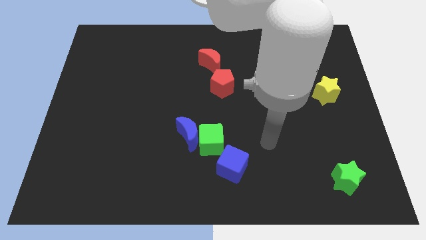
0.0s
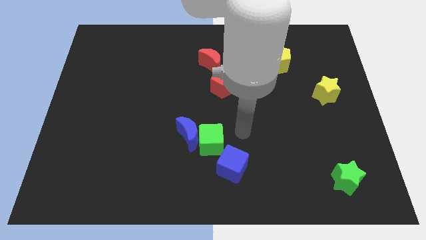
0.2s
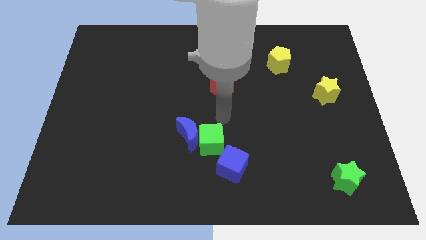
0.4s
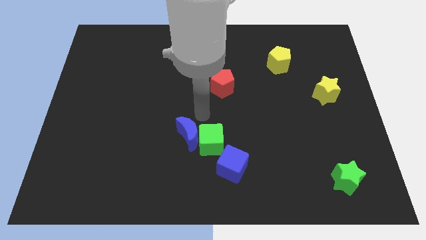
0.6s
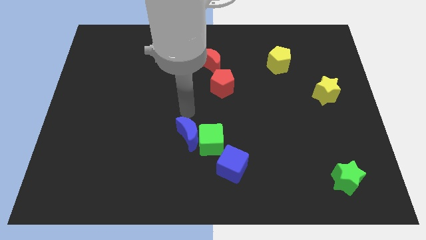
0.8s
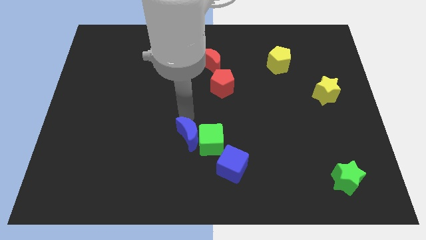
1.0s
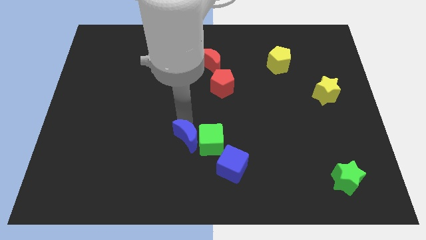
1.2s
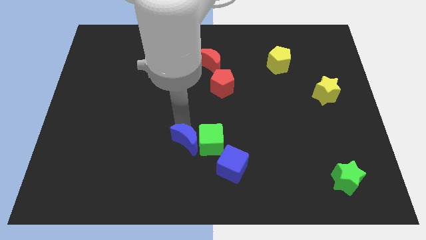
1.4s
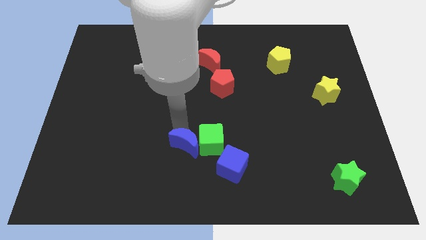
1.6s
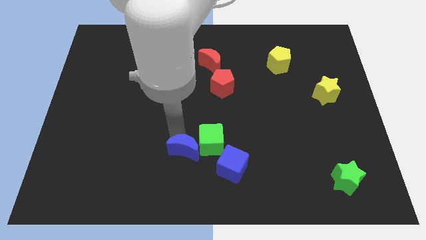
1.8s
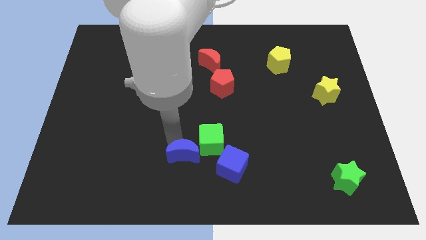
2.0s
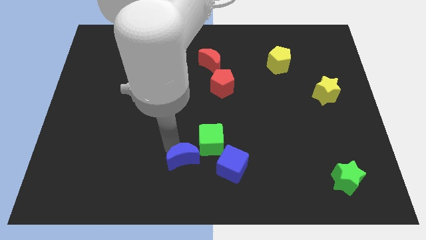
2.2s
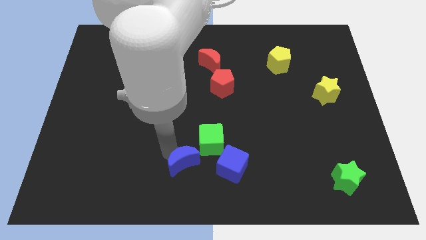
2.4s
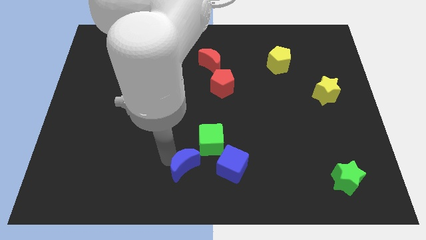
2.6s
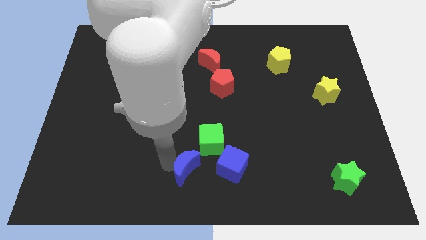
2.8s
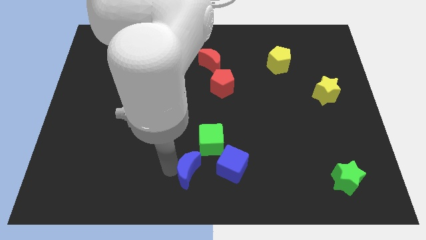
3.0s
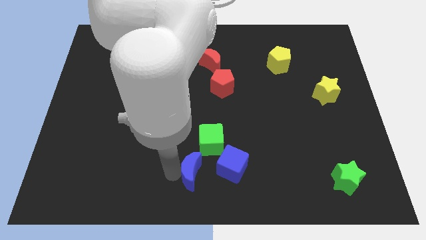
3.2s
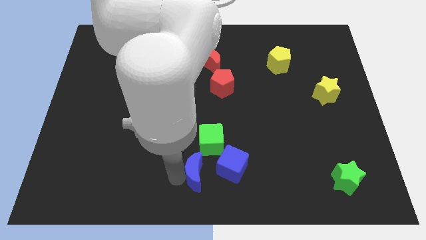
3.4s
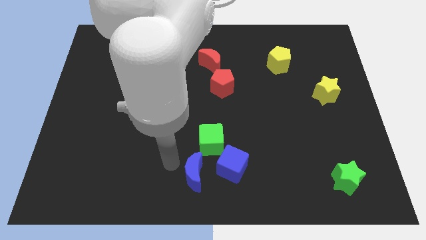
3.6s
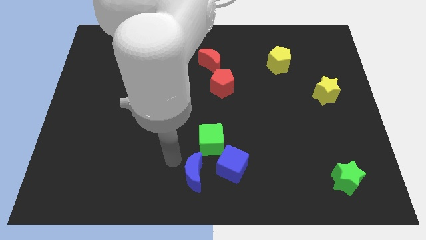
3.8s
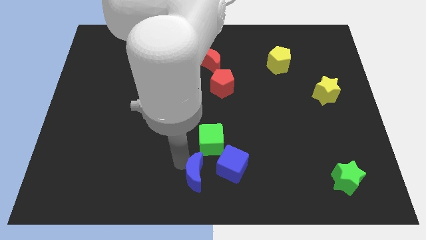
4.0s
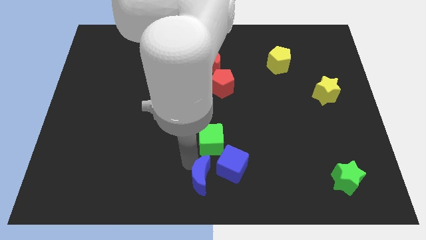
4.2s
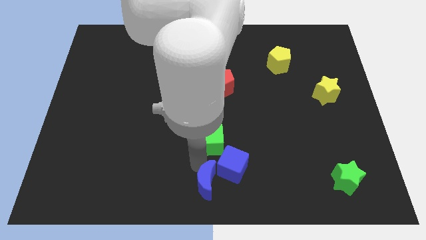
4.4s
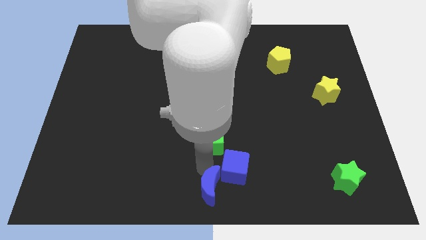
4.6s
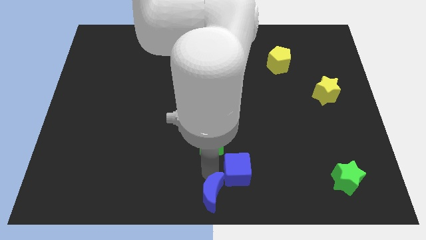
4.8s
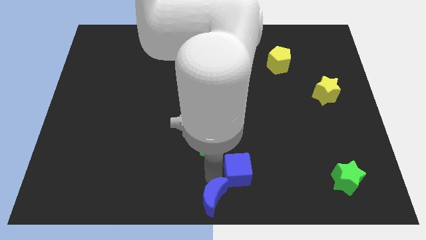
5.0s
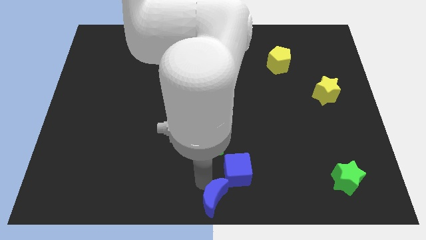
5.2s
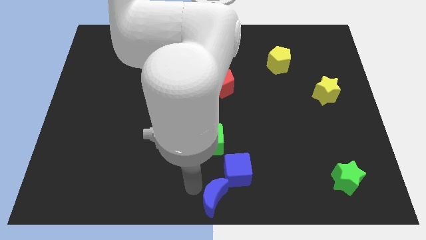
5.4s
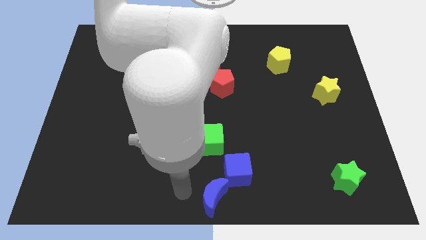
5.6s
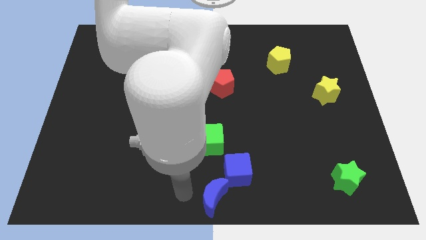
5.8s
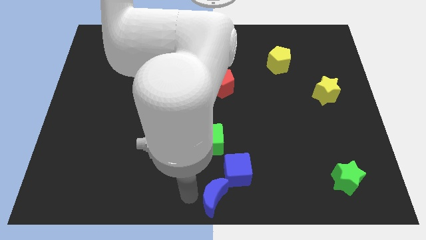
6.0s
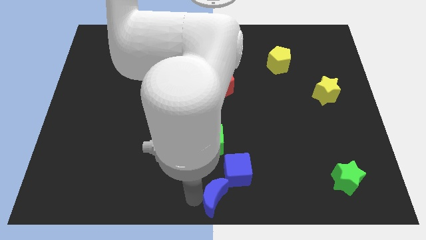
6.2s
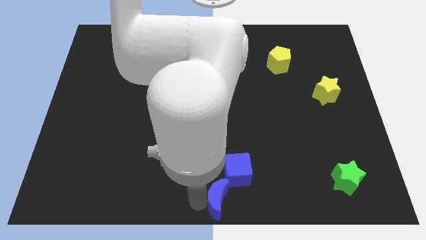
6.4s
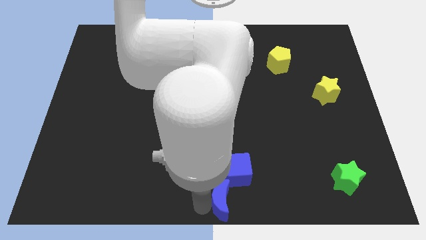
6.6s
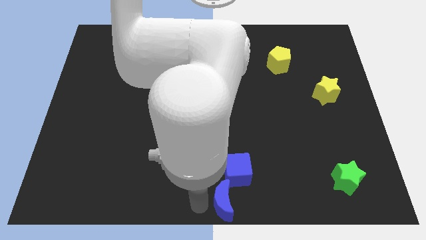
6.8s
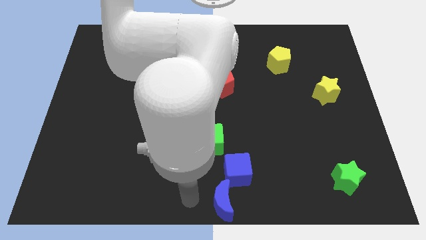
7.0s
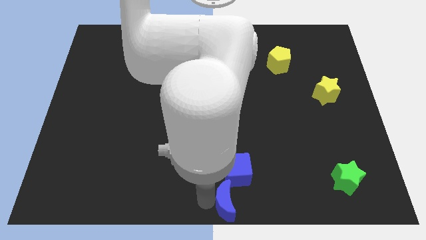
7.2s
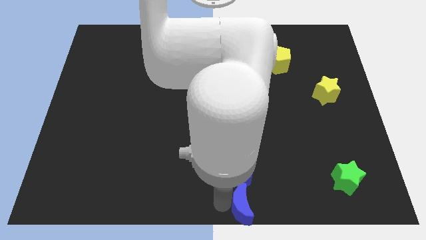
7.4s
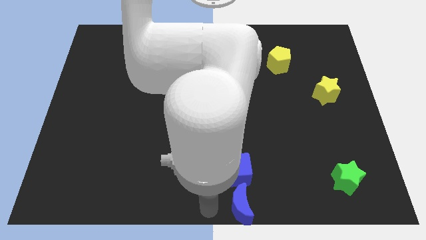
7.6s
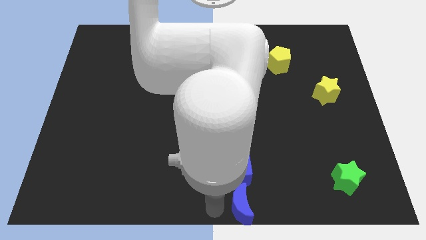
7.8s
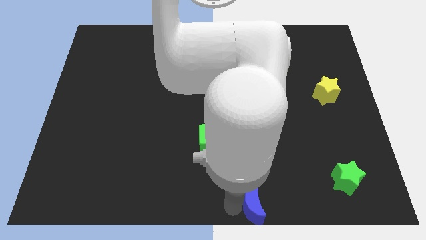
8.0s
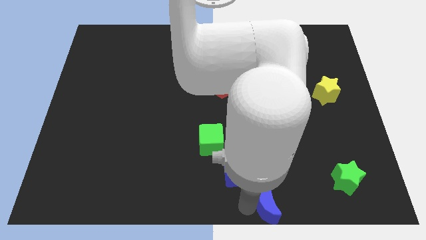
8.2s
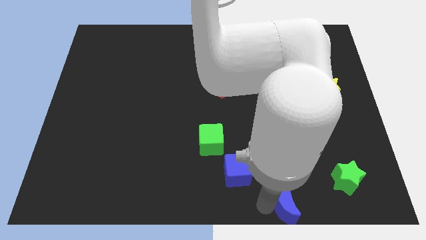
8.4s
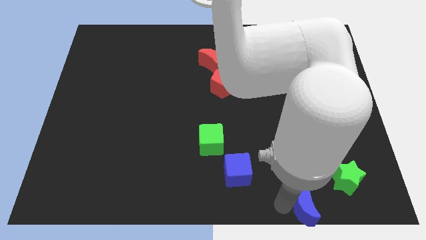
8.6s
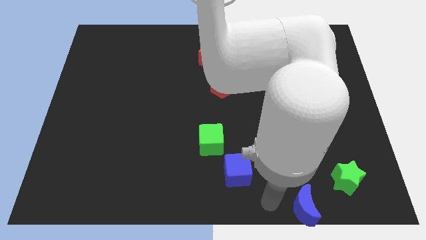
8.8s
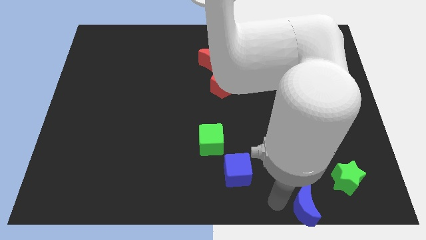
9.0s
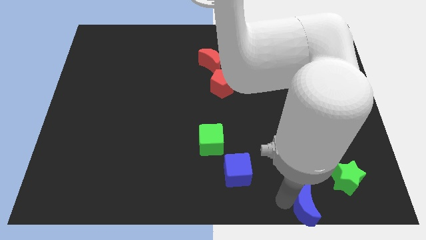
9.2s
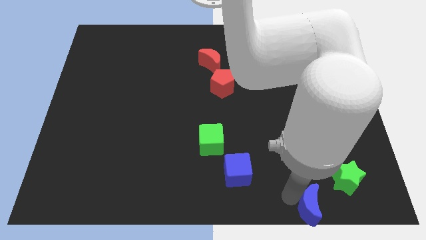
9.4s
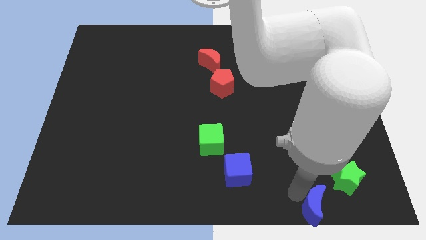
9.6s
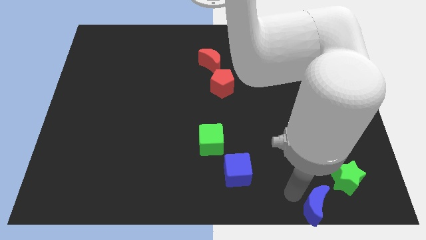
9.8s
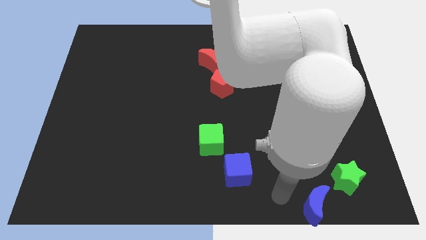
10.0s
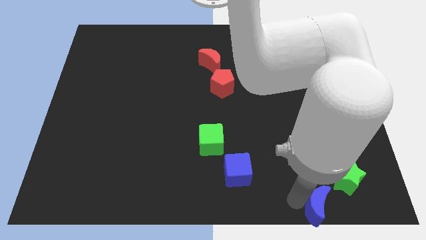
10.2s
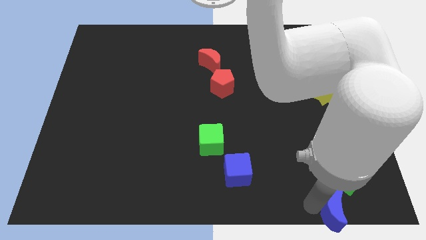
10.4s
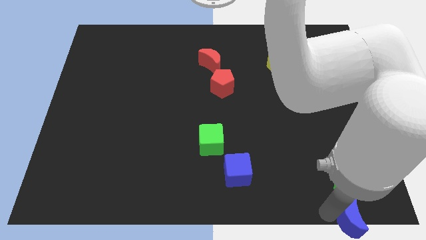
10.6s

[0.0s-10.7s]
slide the blue moon to the lower right corner

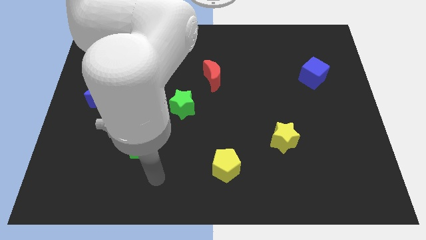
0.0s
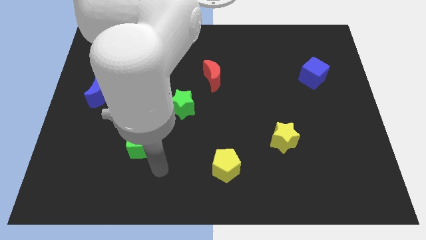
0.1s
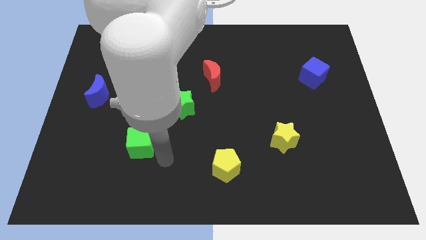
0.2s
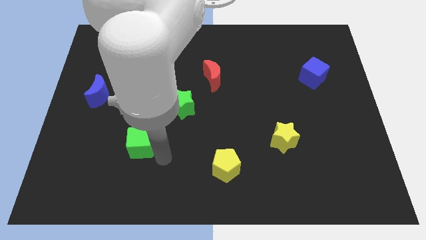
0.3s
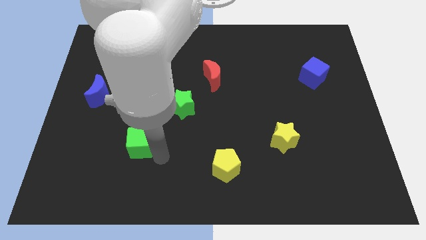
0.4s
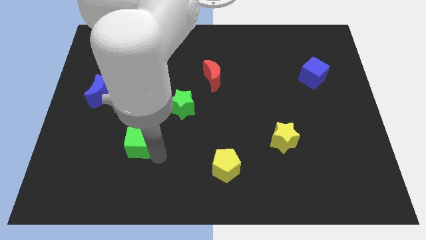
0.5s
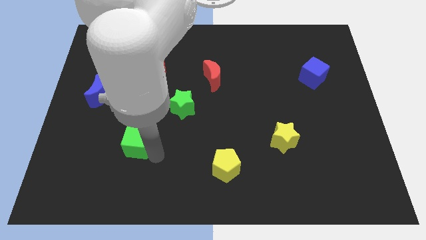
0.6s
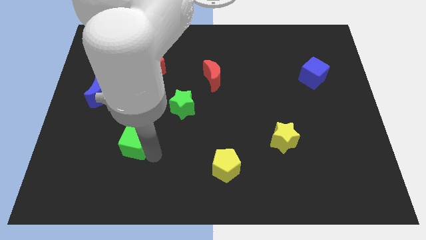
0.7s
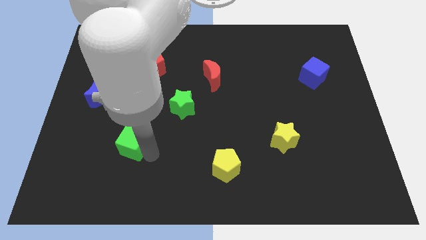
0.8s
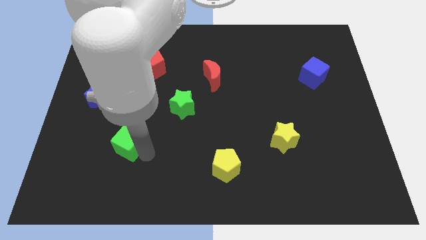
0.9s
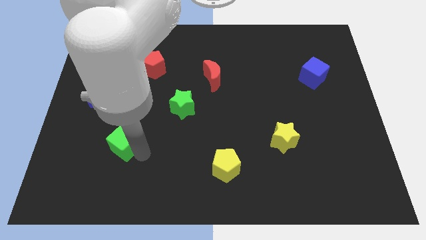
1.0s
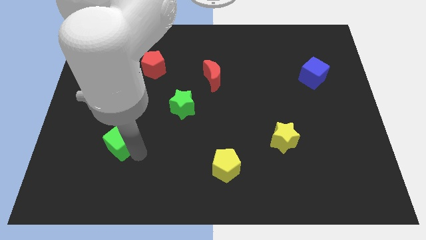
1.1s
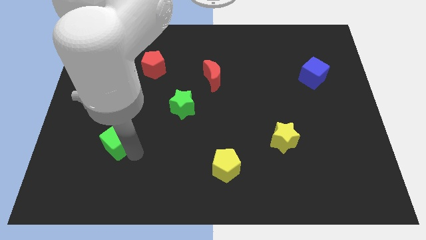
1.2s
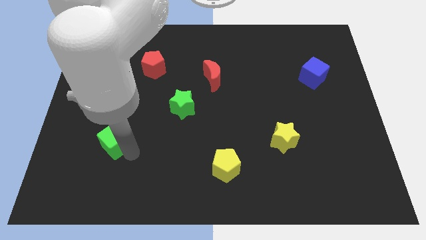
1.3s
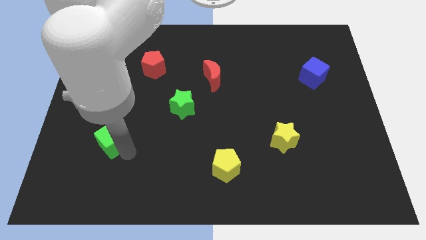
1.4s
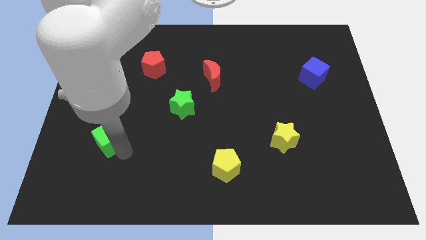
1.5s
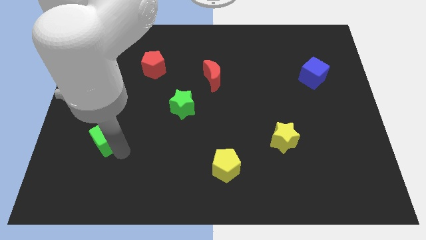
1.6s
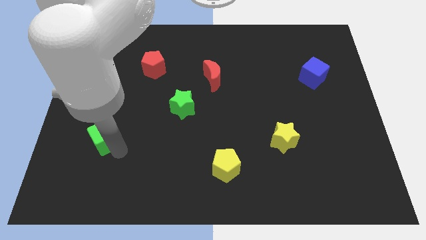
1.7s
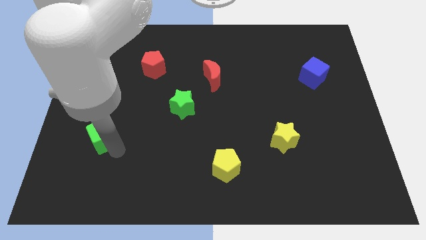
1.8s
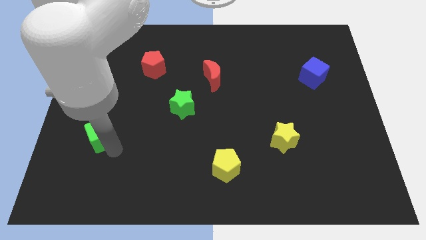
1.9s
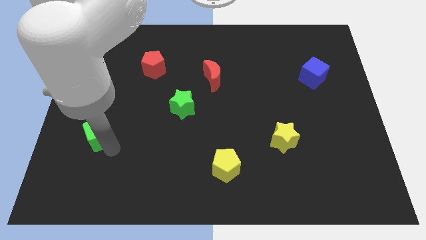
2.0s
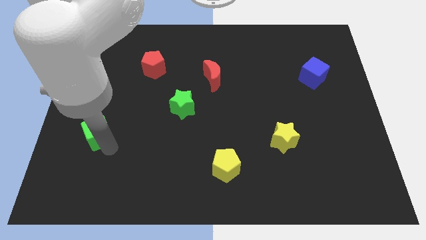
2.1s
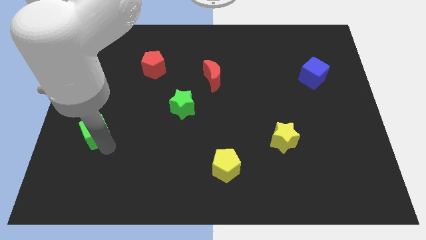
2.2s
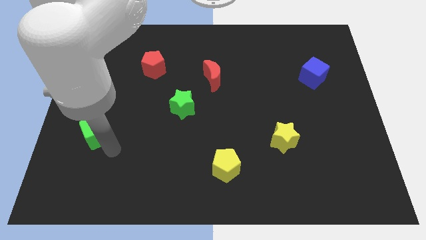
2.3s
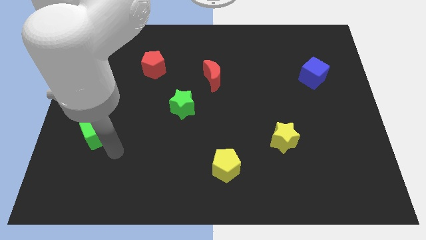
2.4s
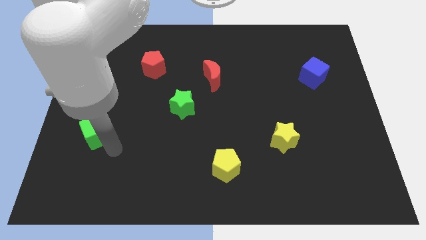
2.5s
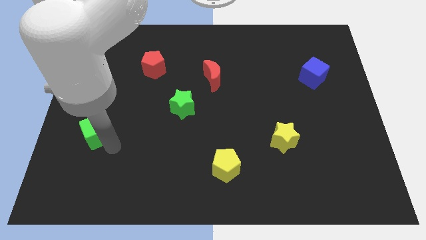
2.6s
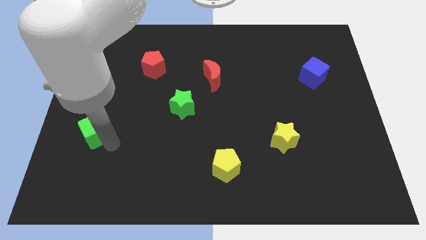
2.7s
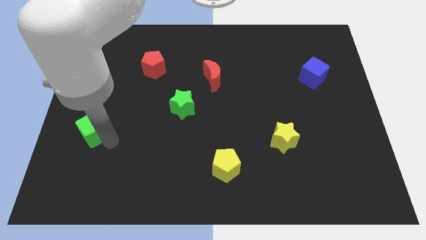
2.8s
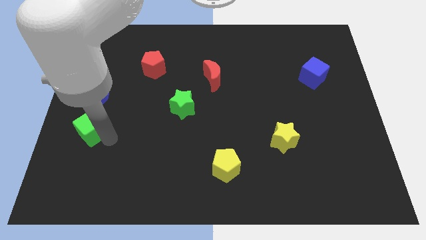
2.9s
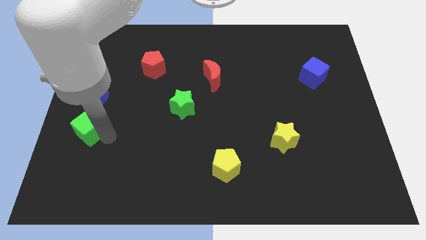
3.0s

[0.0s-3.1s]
put the green cube to the left side of the board
